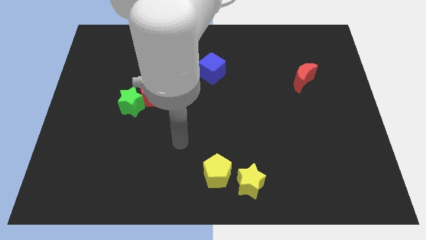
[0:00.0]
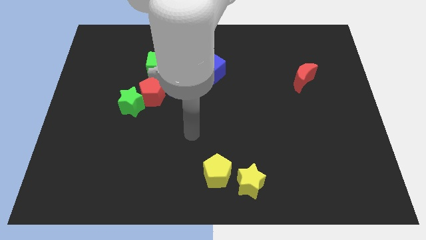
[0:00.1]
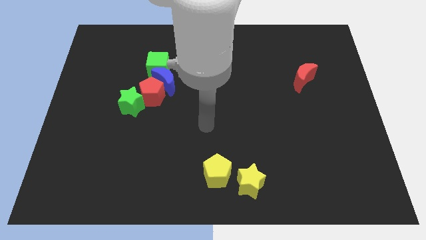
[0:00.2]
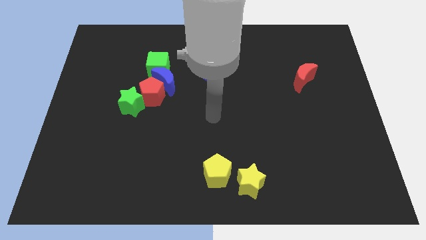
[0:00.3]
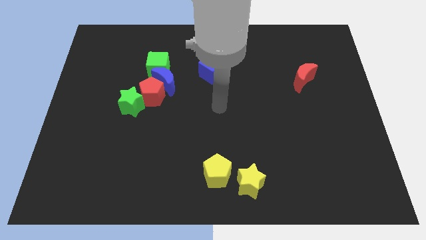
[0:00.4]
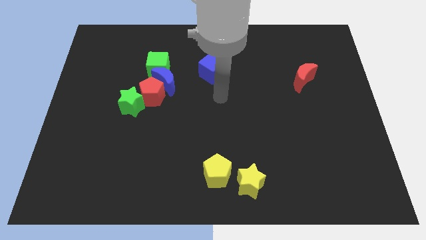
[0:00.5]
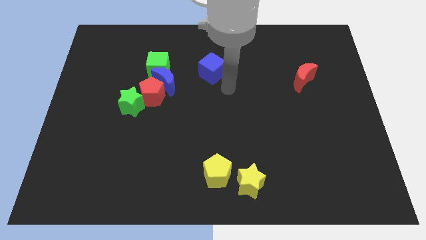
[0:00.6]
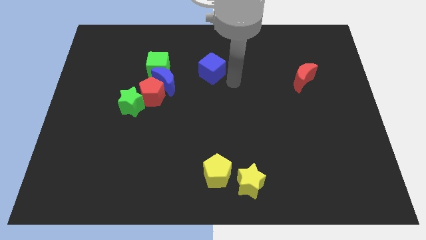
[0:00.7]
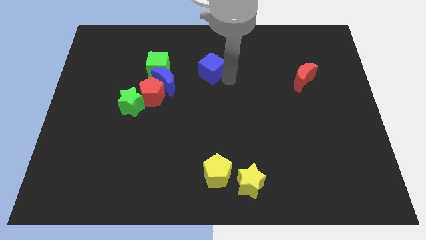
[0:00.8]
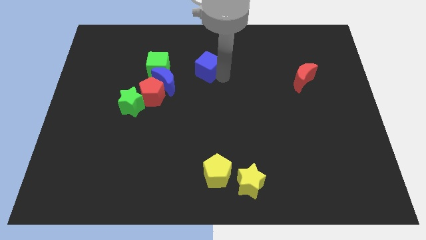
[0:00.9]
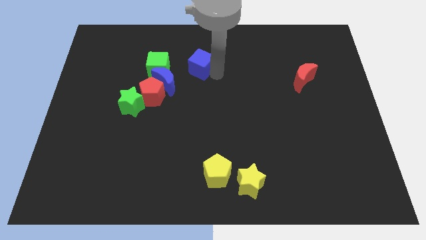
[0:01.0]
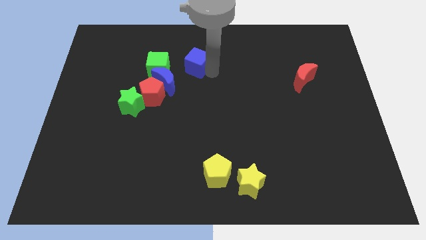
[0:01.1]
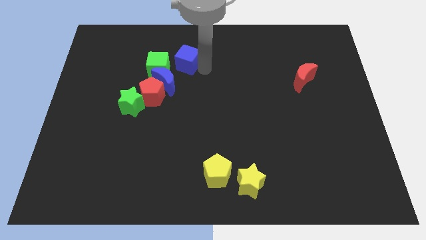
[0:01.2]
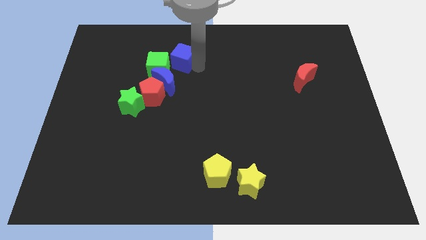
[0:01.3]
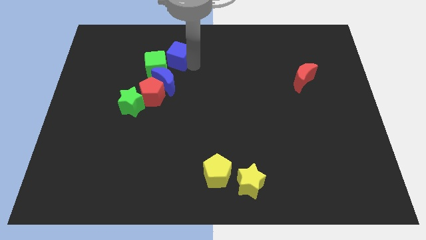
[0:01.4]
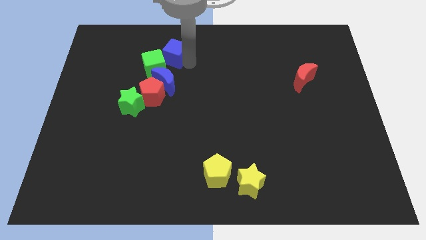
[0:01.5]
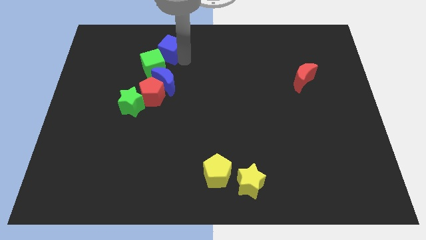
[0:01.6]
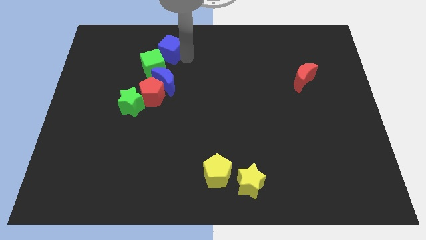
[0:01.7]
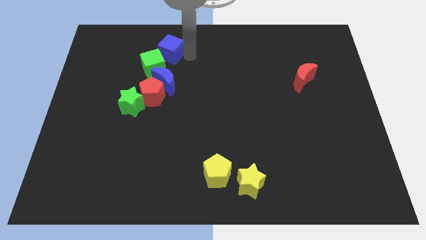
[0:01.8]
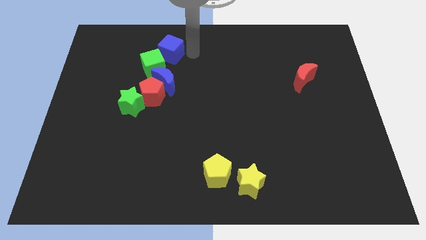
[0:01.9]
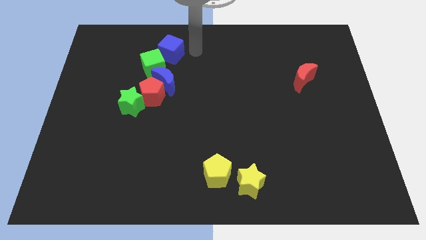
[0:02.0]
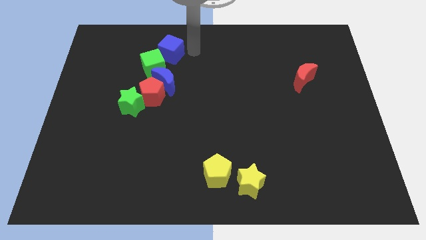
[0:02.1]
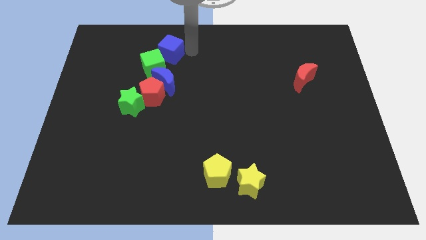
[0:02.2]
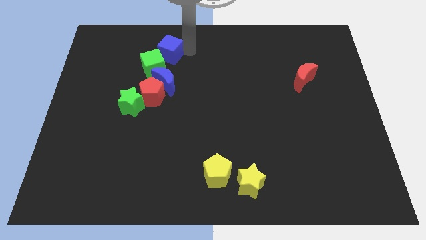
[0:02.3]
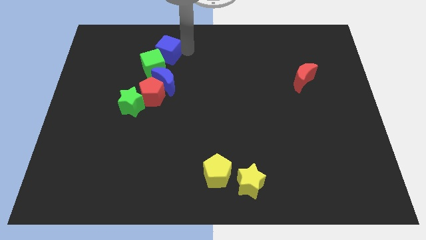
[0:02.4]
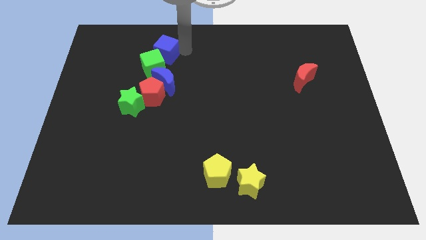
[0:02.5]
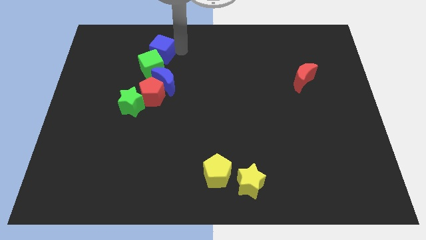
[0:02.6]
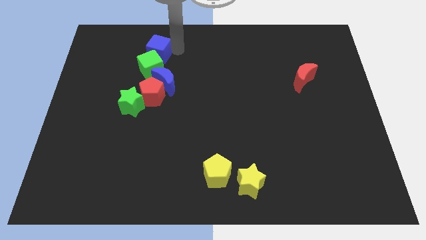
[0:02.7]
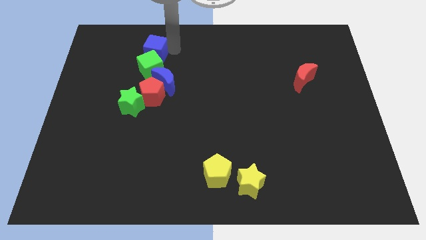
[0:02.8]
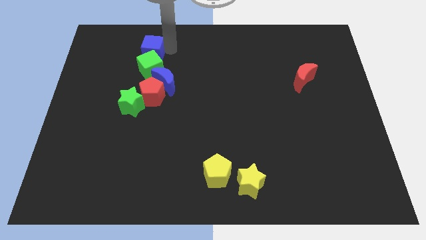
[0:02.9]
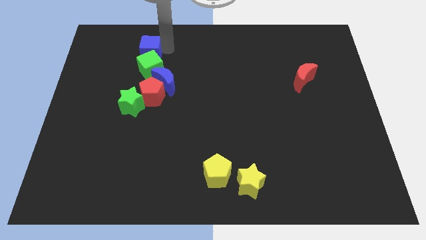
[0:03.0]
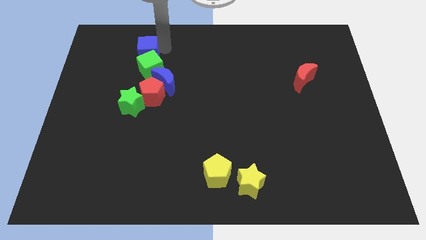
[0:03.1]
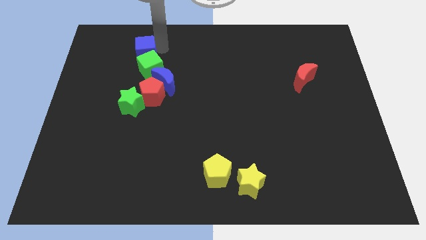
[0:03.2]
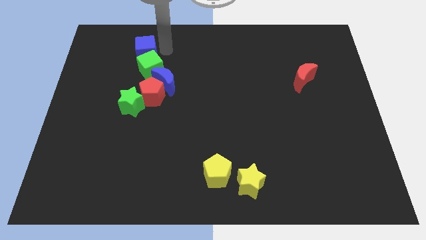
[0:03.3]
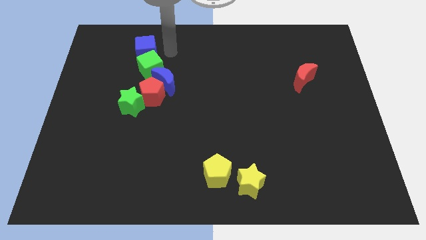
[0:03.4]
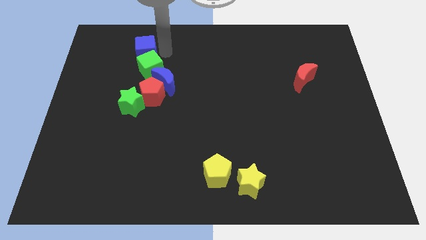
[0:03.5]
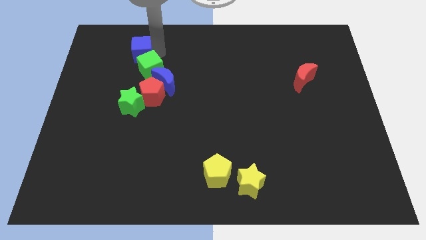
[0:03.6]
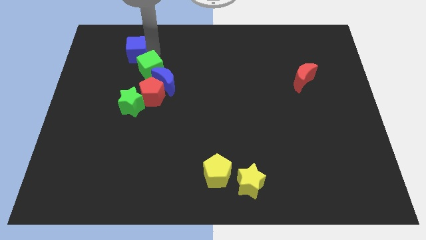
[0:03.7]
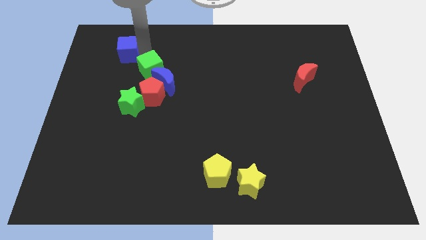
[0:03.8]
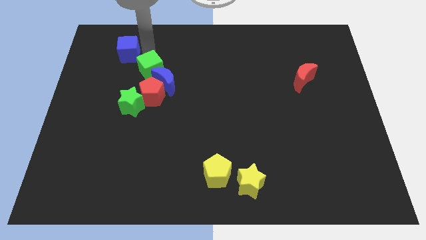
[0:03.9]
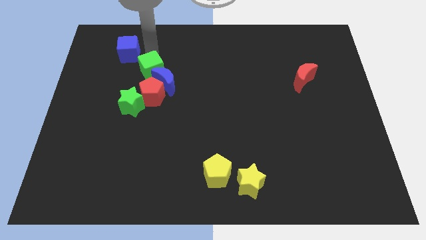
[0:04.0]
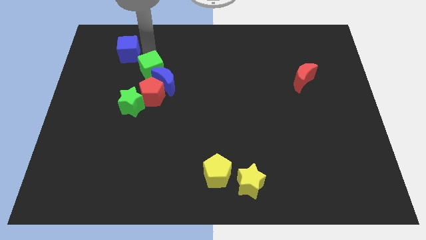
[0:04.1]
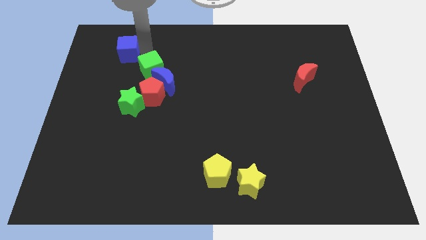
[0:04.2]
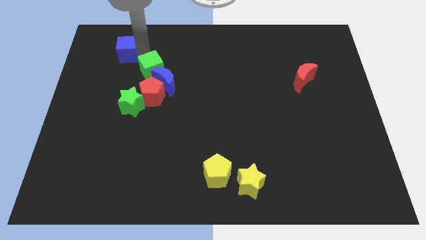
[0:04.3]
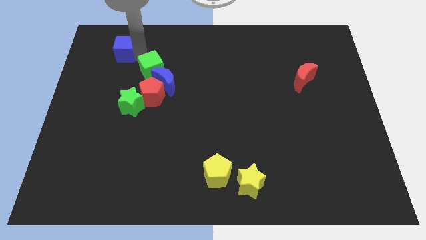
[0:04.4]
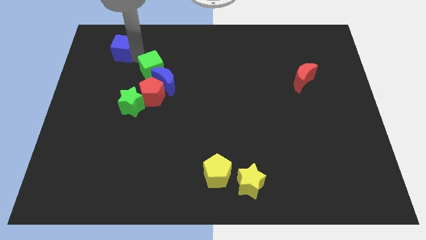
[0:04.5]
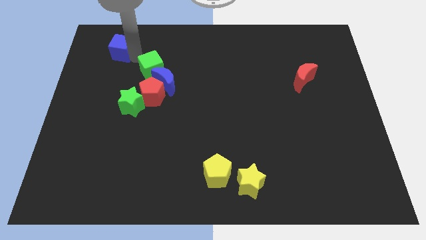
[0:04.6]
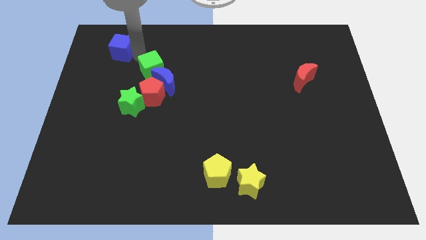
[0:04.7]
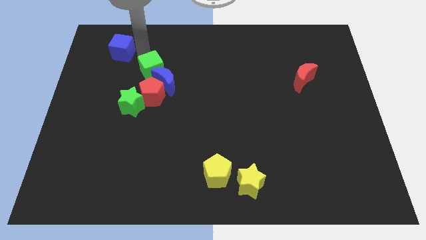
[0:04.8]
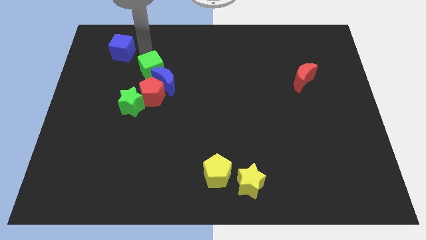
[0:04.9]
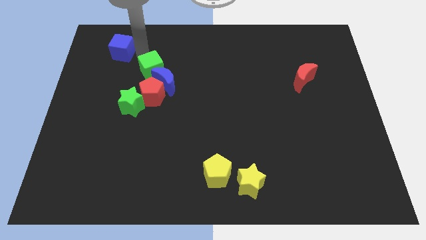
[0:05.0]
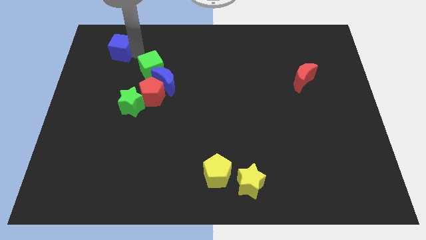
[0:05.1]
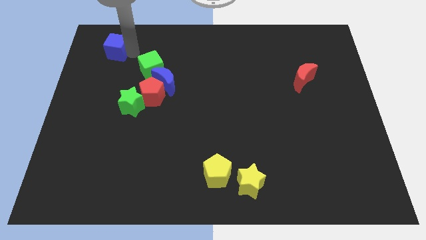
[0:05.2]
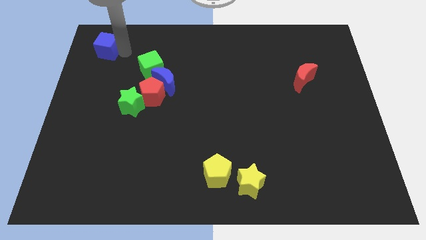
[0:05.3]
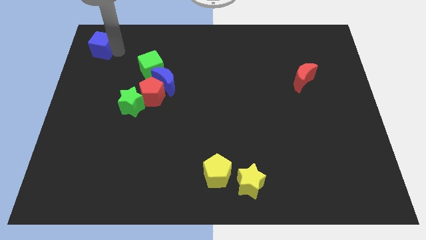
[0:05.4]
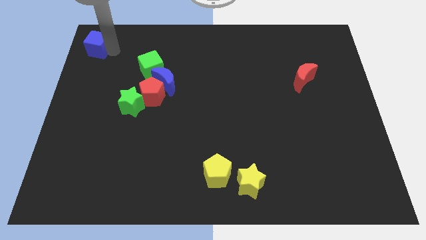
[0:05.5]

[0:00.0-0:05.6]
push the blue cube to the top left of the board
